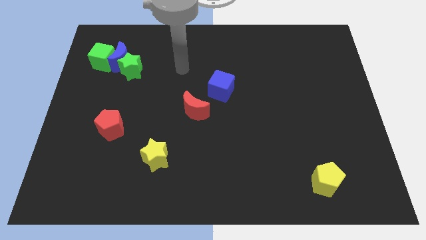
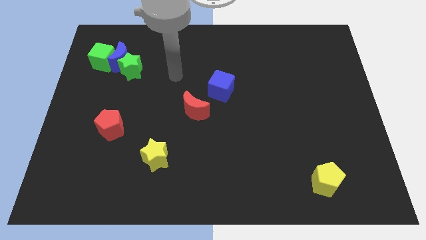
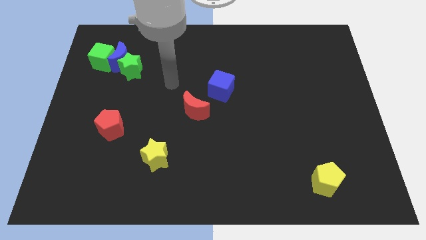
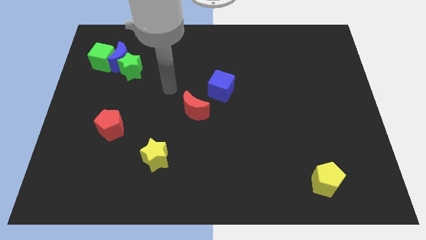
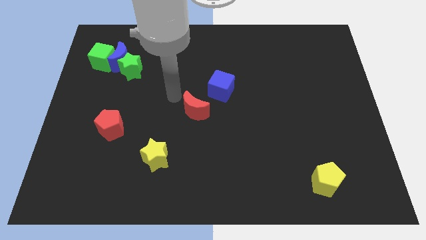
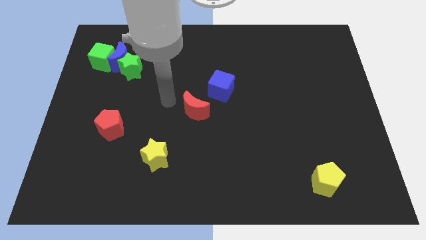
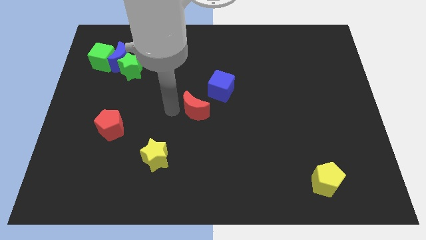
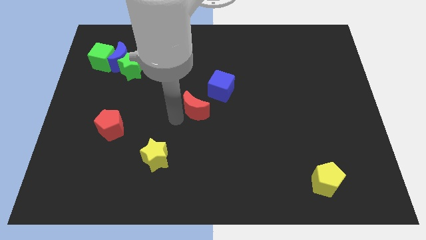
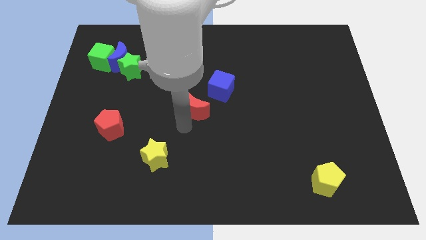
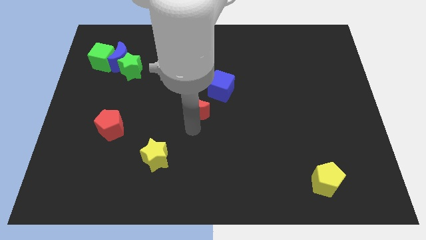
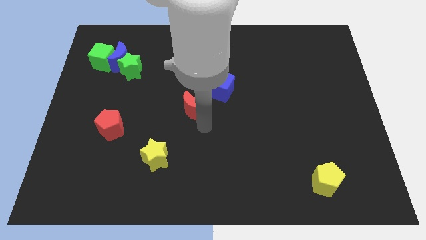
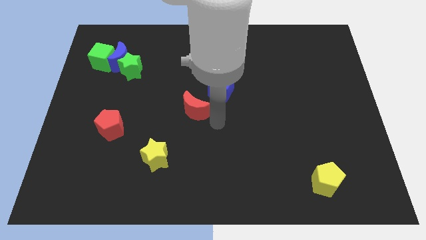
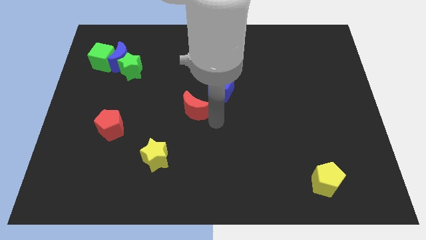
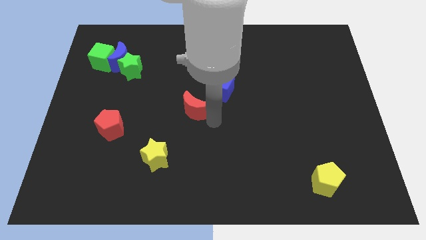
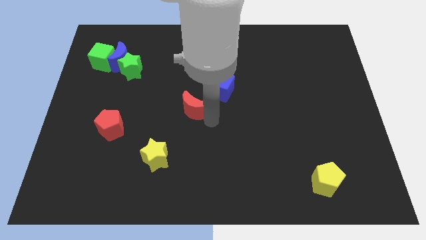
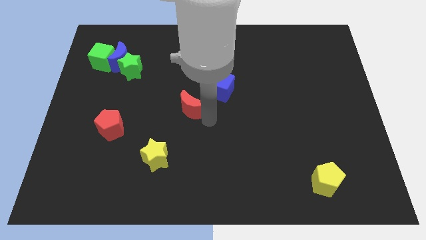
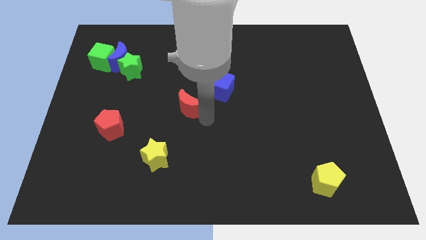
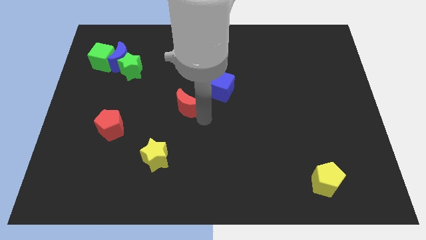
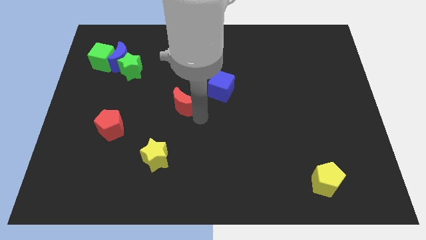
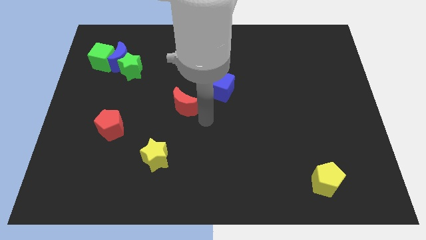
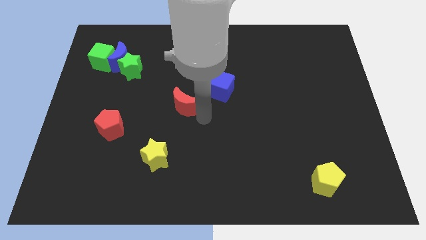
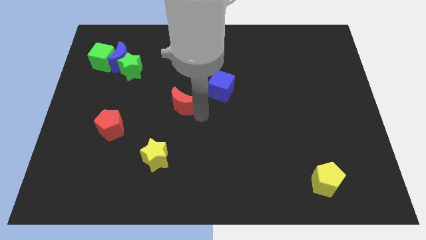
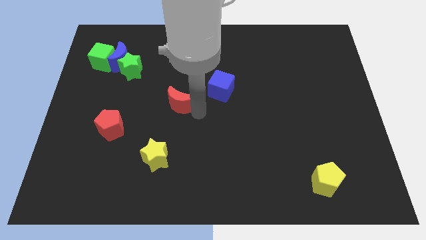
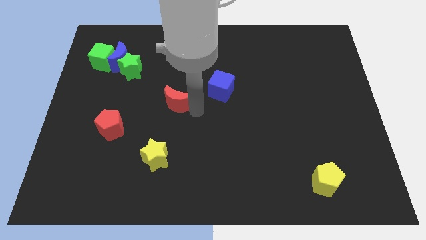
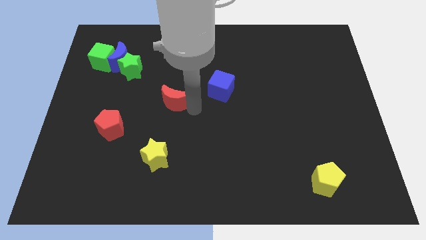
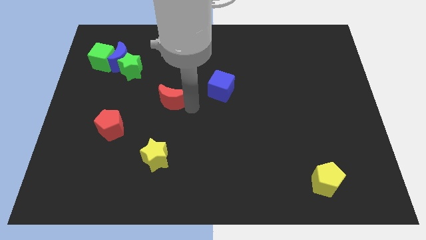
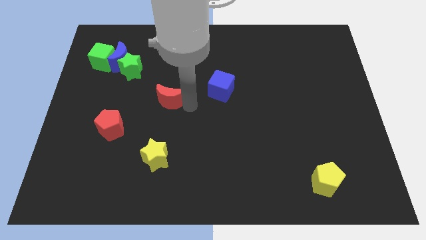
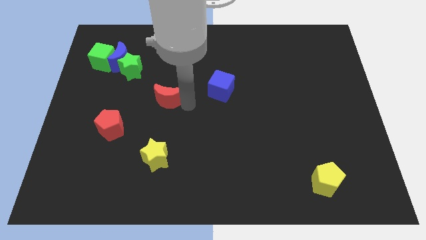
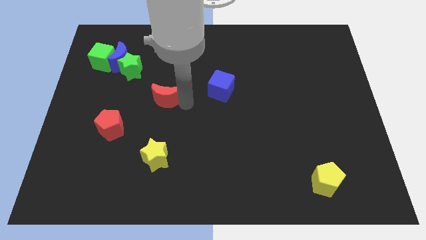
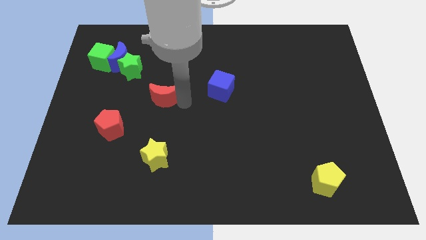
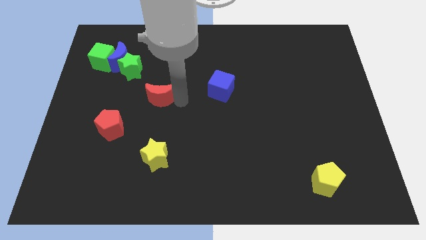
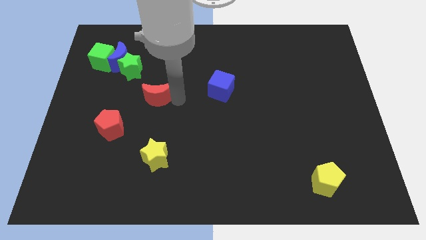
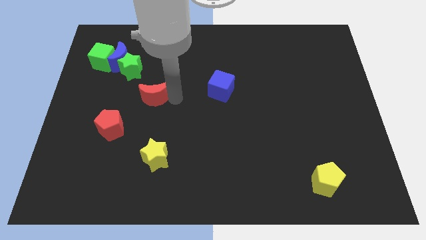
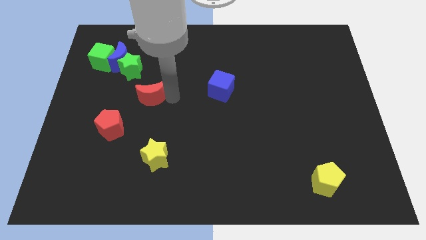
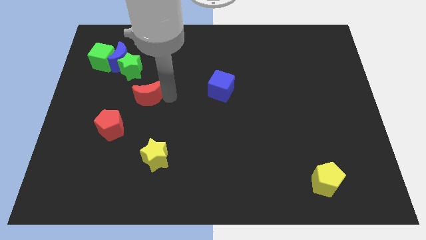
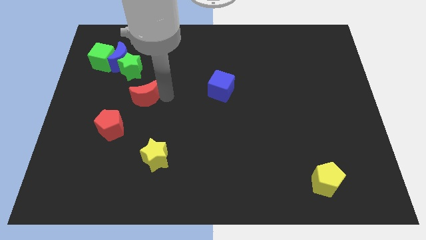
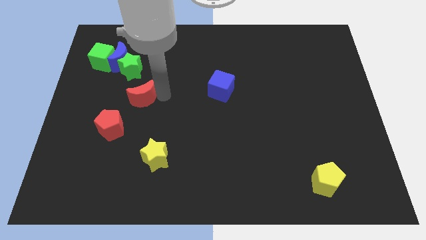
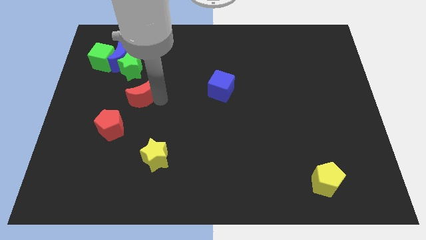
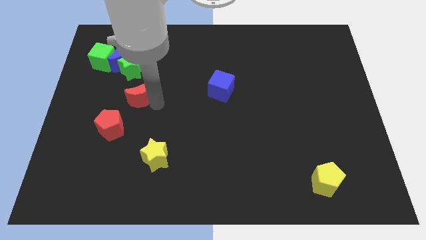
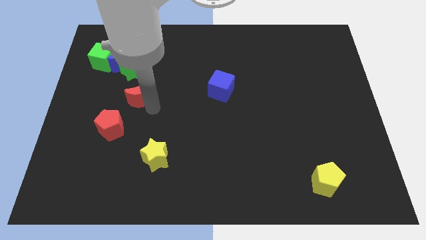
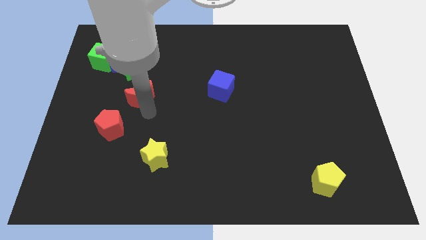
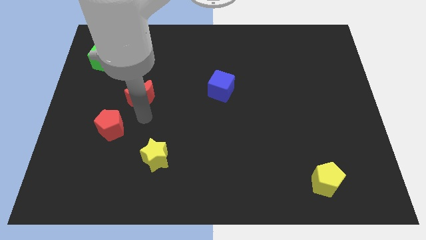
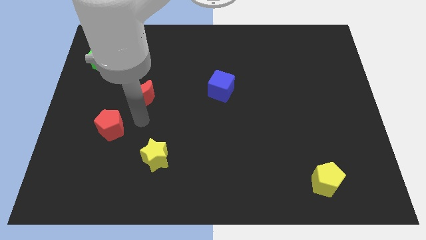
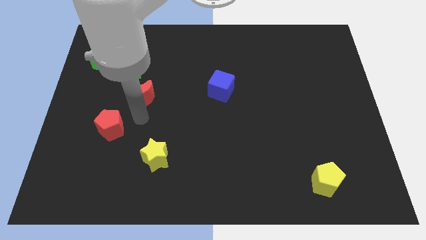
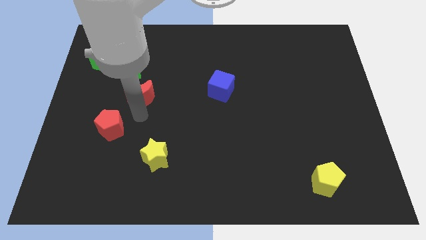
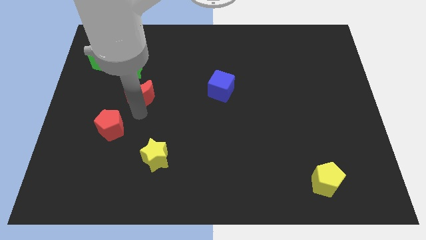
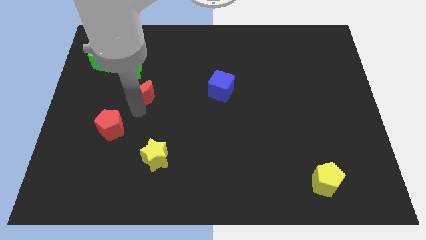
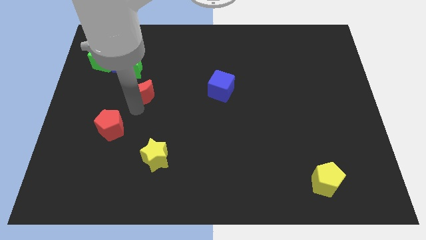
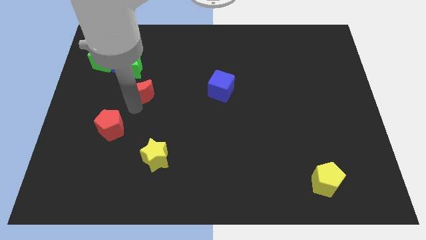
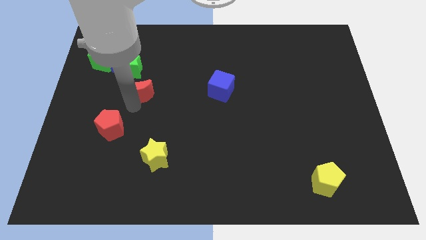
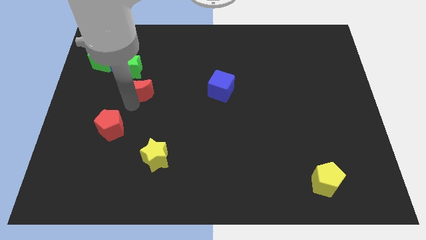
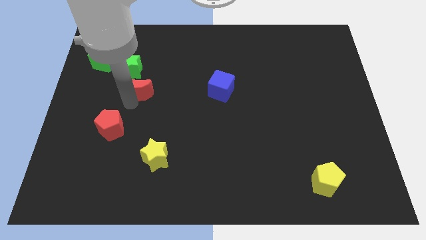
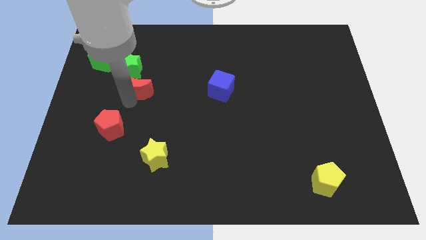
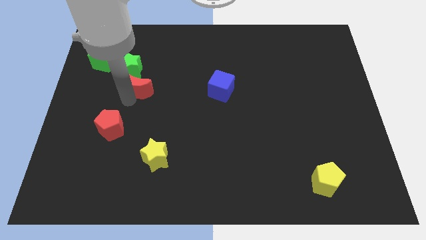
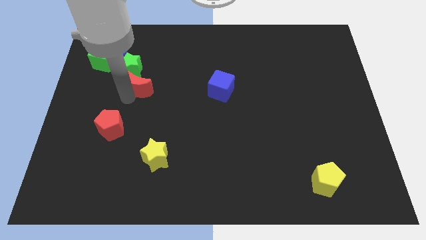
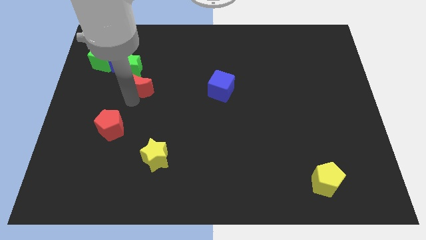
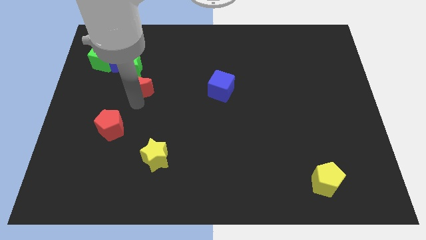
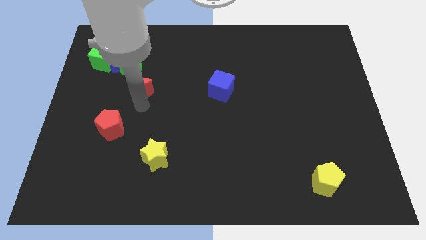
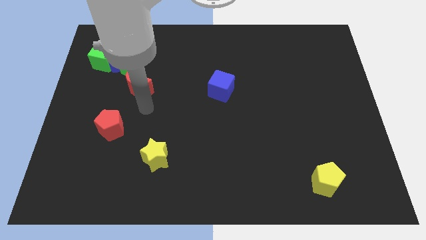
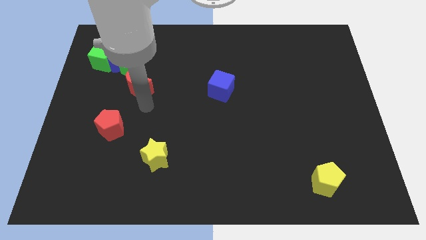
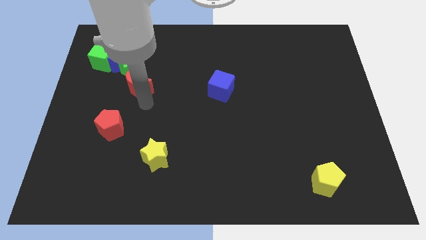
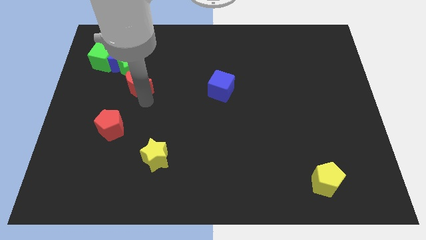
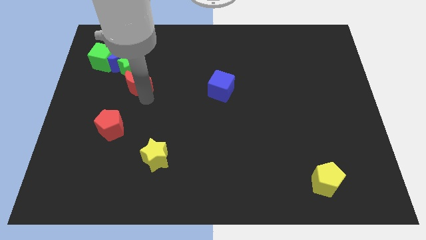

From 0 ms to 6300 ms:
push the red moon to the green star

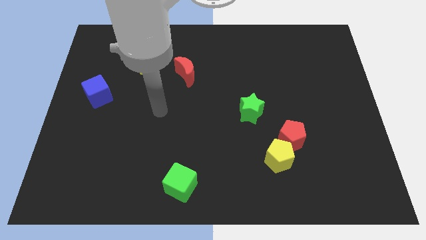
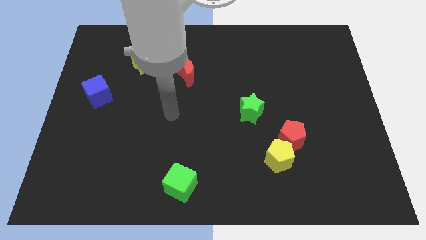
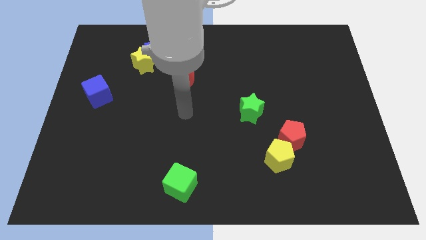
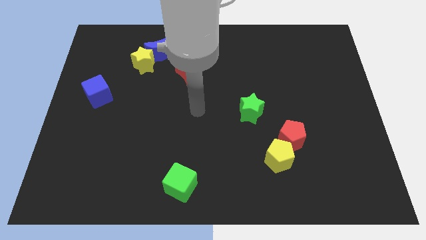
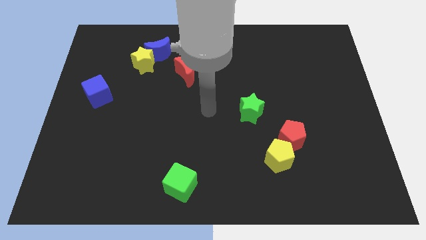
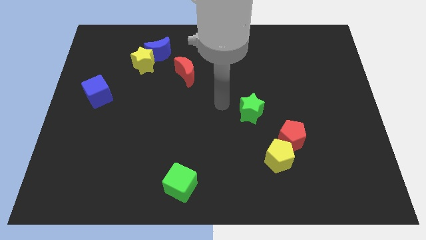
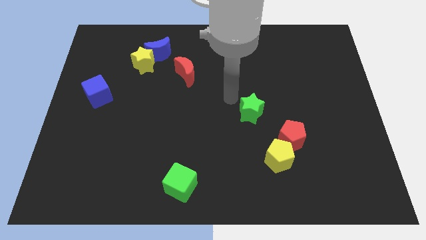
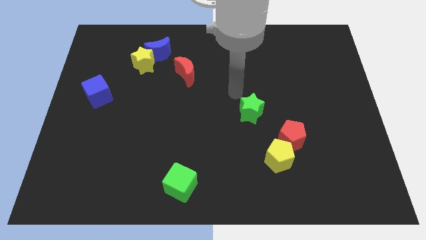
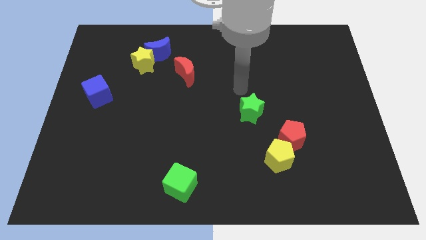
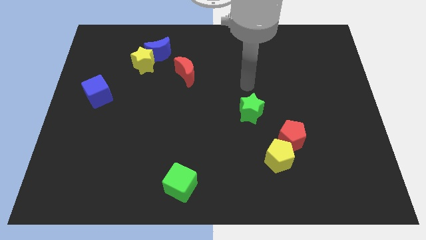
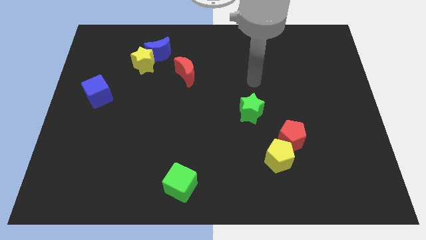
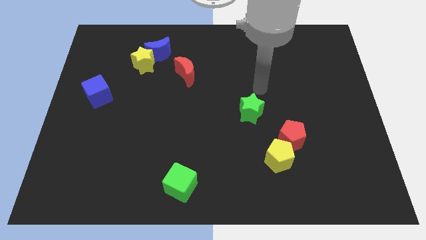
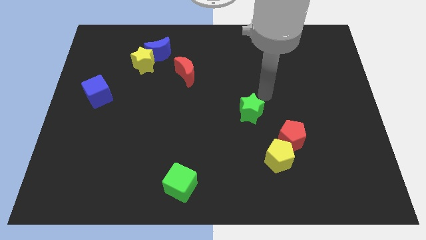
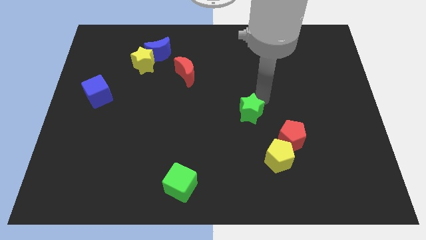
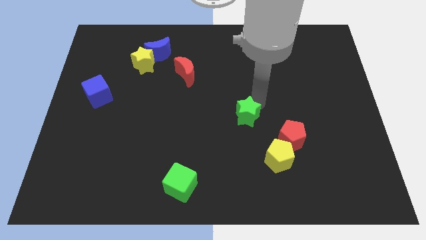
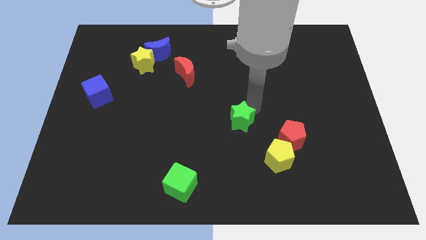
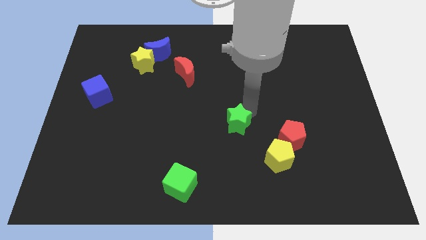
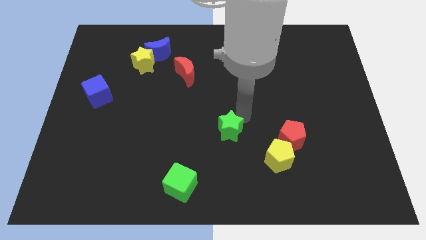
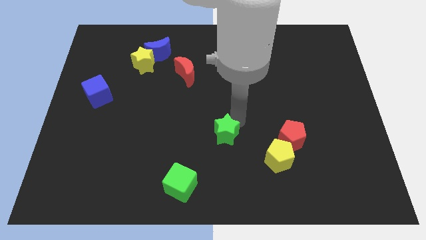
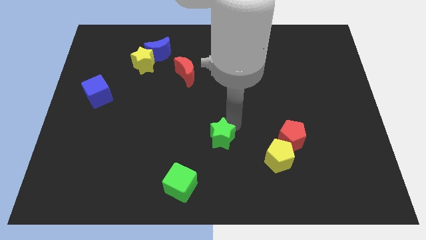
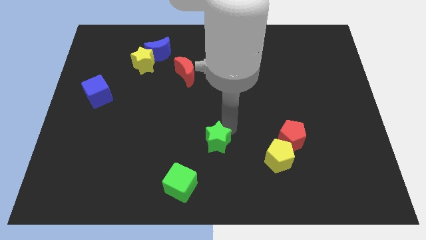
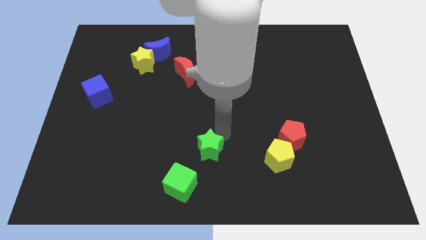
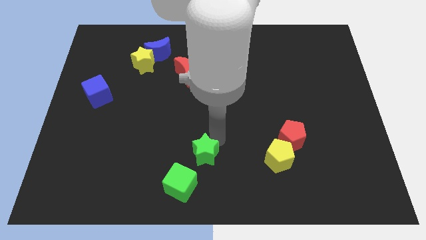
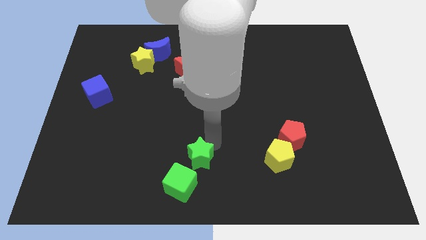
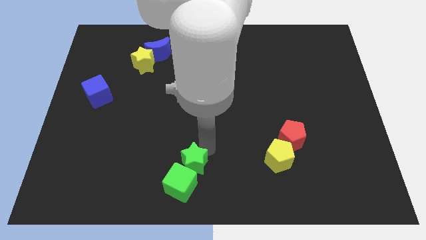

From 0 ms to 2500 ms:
move the green star close to the green cube
